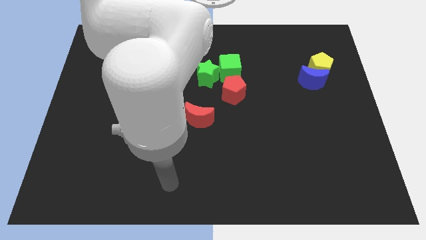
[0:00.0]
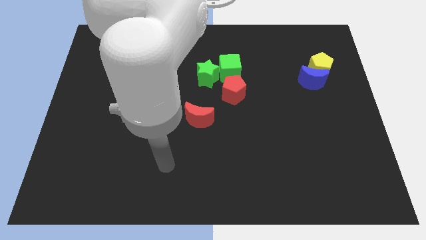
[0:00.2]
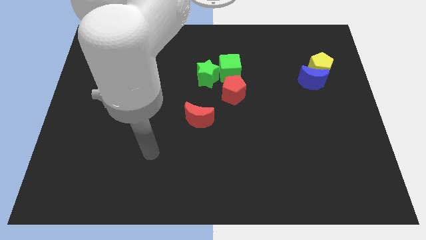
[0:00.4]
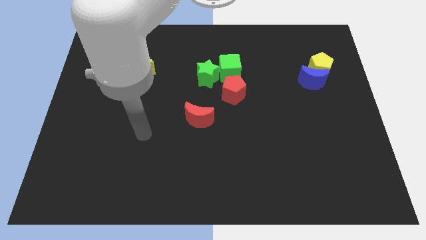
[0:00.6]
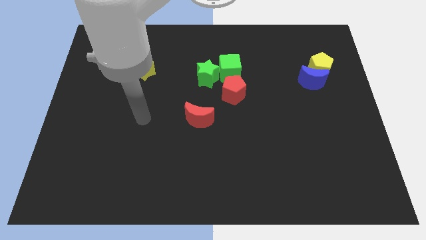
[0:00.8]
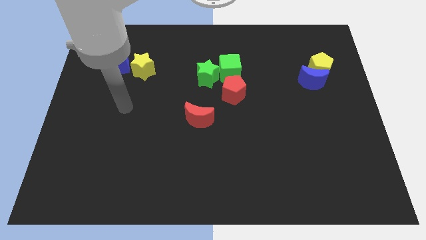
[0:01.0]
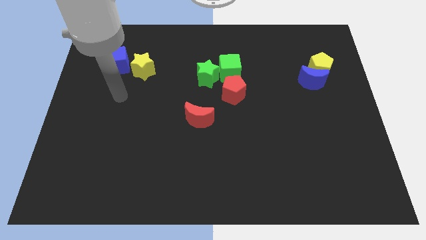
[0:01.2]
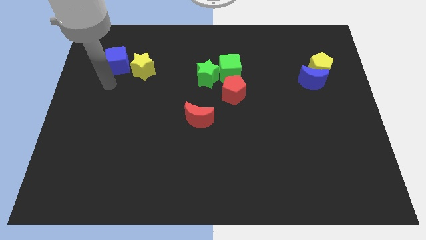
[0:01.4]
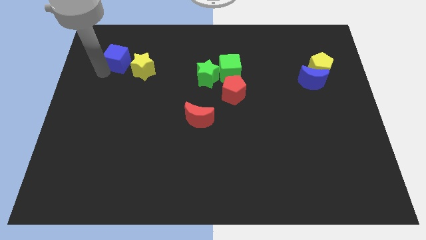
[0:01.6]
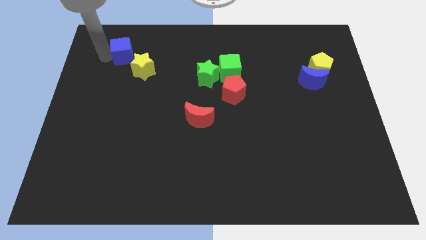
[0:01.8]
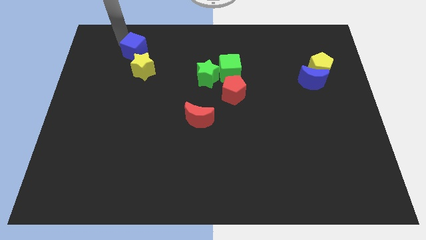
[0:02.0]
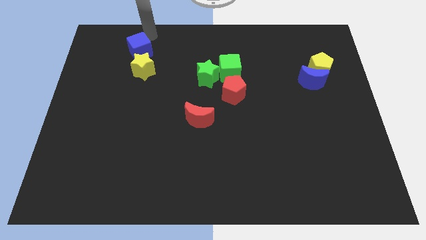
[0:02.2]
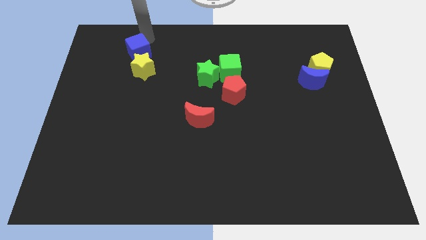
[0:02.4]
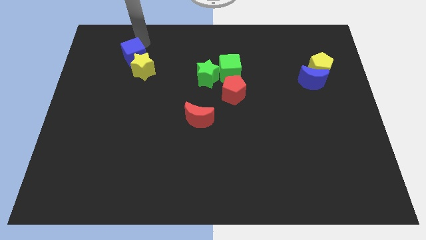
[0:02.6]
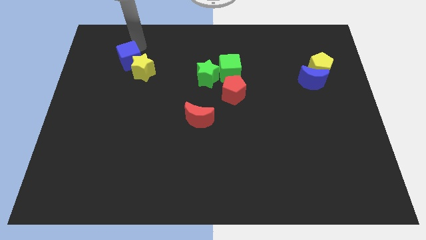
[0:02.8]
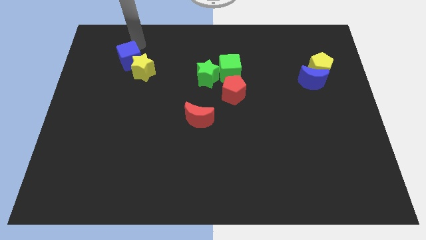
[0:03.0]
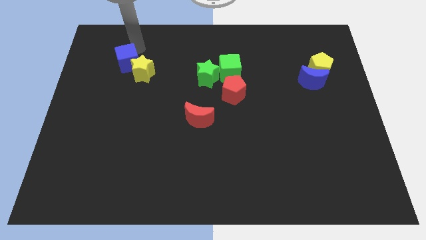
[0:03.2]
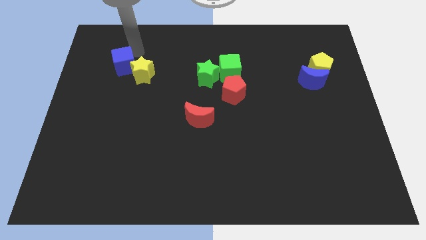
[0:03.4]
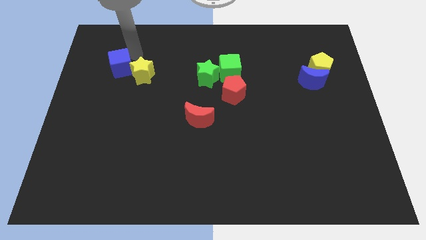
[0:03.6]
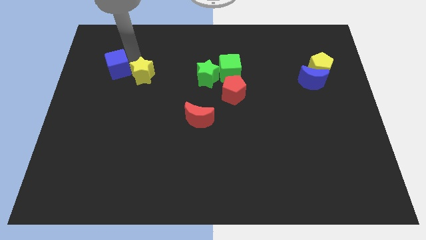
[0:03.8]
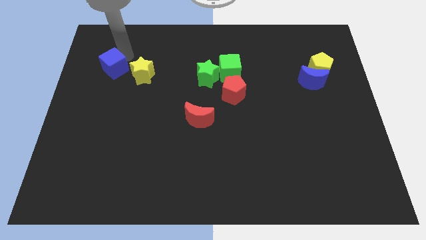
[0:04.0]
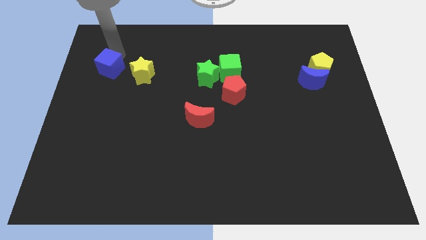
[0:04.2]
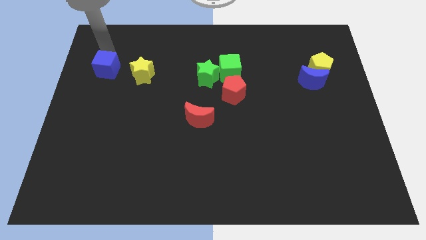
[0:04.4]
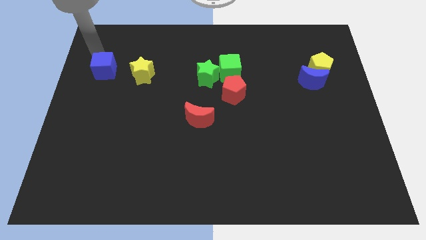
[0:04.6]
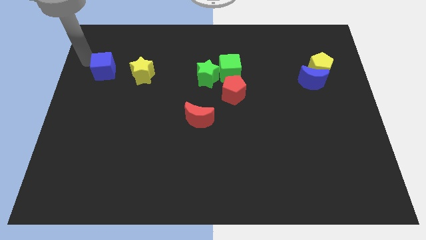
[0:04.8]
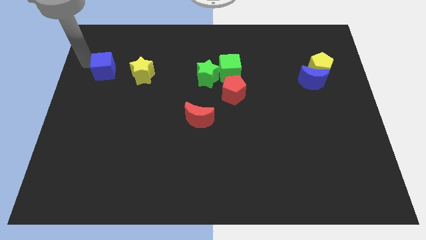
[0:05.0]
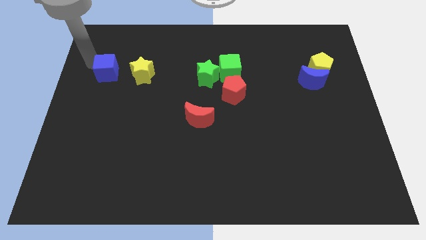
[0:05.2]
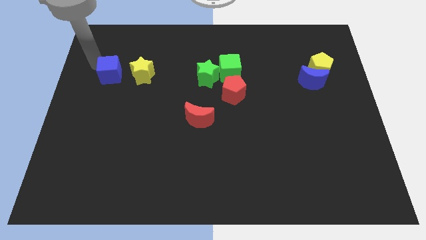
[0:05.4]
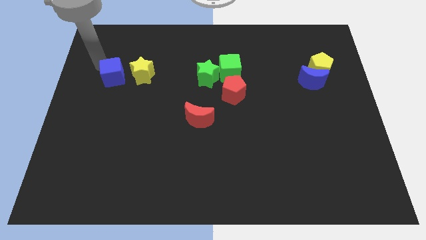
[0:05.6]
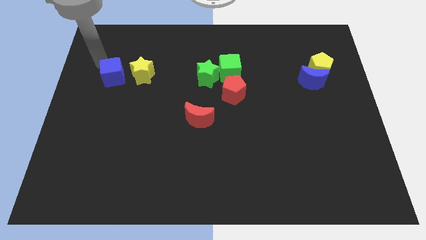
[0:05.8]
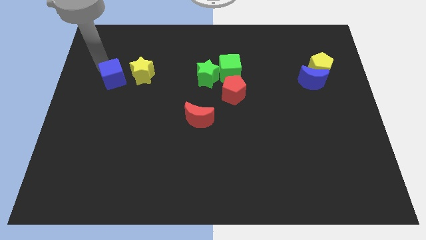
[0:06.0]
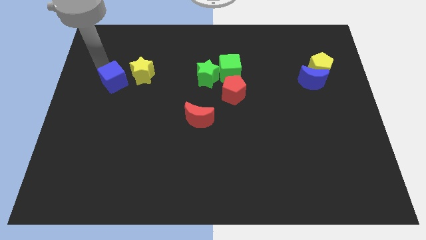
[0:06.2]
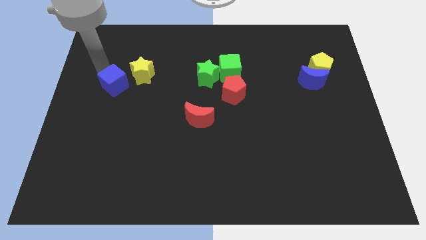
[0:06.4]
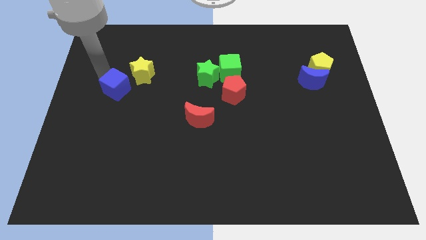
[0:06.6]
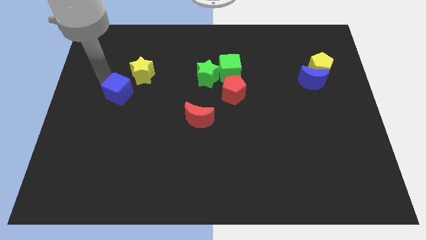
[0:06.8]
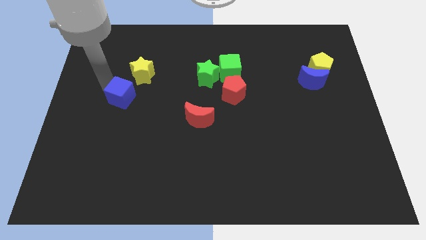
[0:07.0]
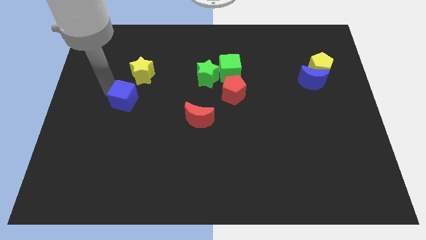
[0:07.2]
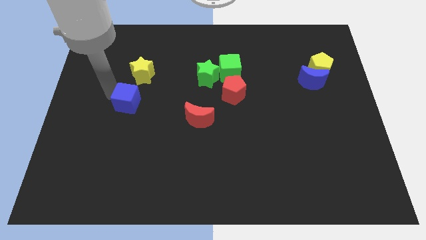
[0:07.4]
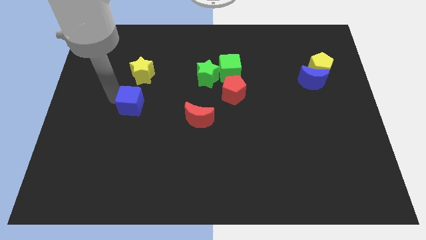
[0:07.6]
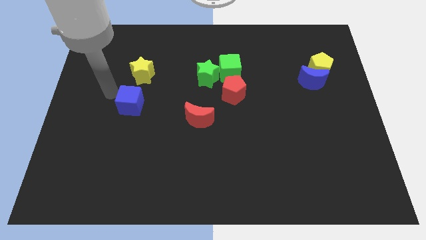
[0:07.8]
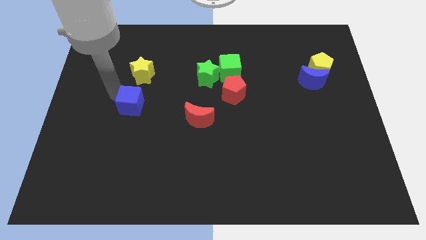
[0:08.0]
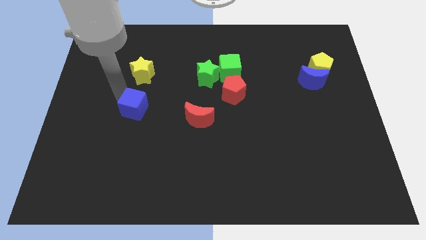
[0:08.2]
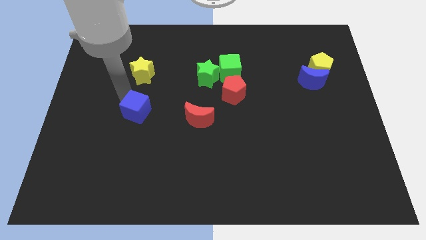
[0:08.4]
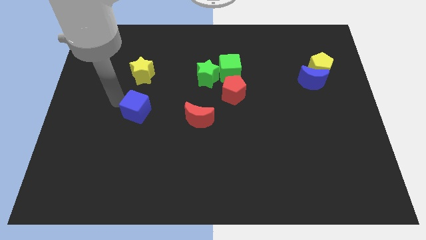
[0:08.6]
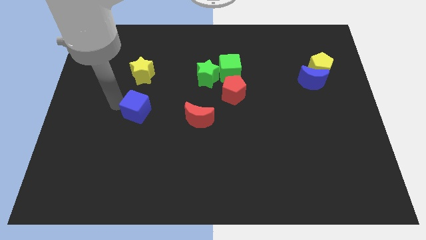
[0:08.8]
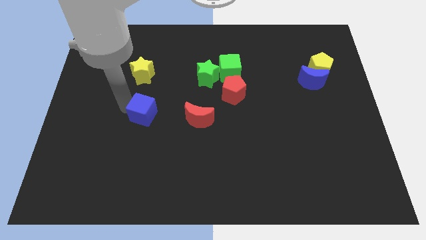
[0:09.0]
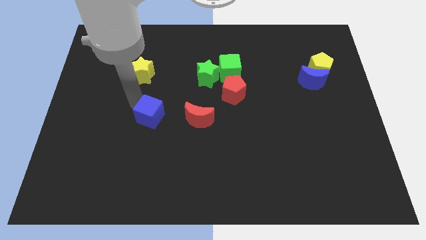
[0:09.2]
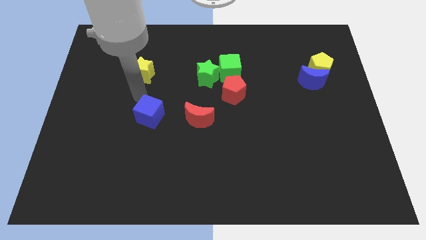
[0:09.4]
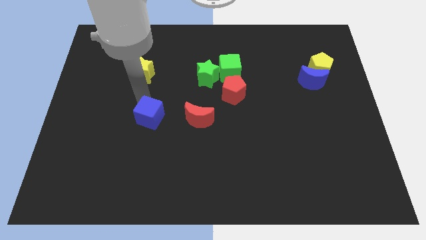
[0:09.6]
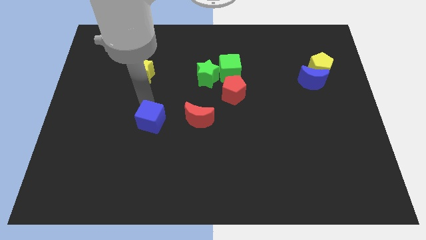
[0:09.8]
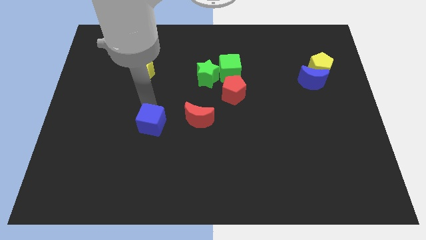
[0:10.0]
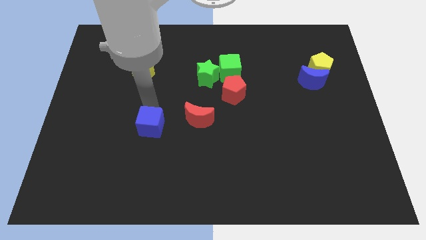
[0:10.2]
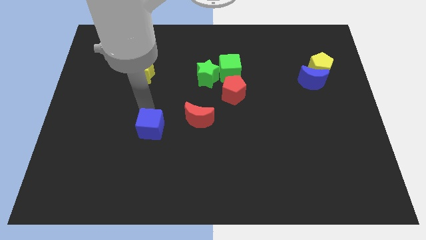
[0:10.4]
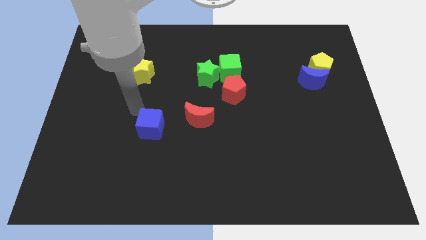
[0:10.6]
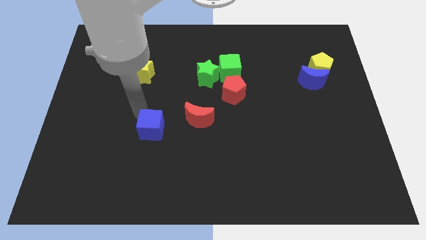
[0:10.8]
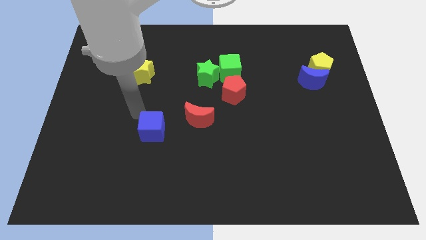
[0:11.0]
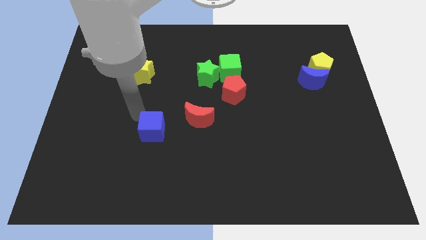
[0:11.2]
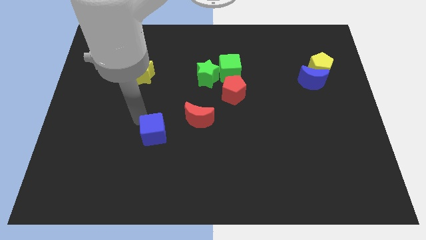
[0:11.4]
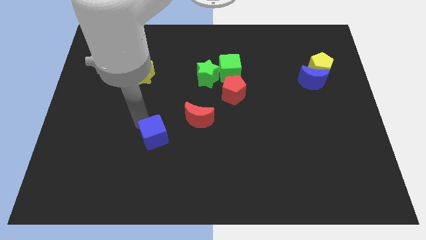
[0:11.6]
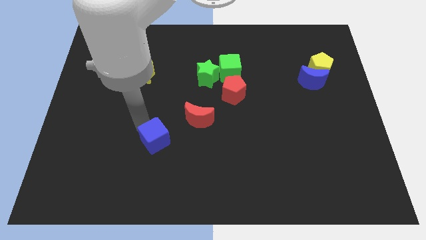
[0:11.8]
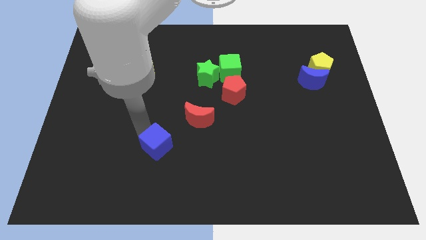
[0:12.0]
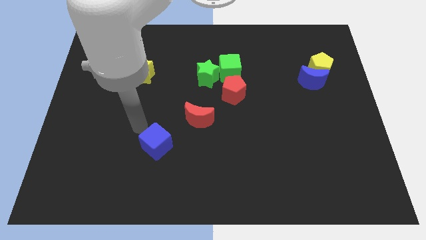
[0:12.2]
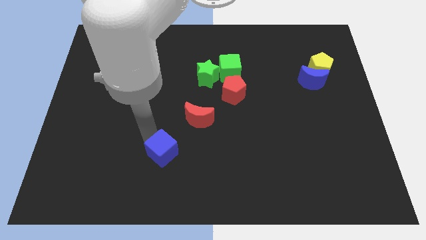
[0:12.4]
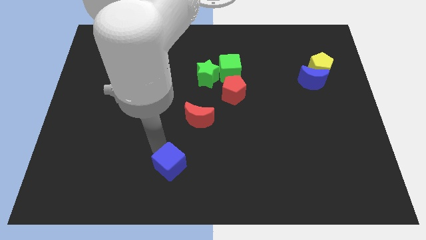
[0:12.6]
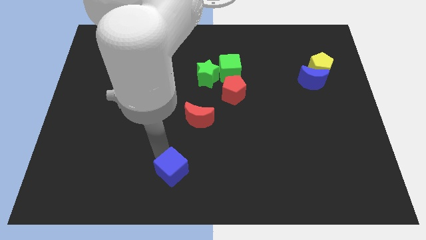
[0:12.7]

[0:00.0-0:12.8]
put the blue cube to the bottom side

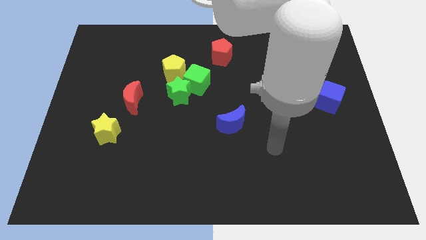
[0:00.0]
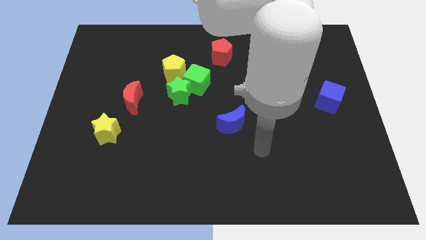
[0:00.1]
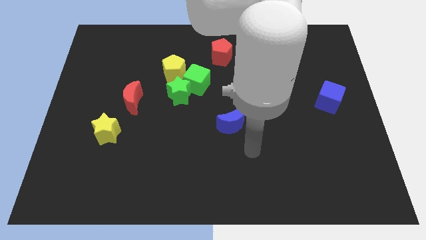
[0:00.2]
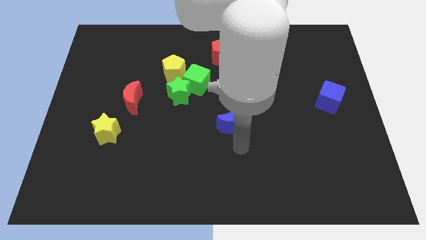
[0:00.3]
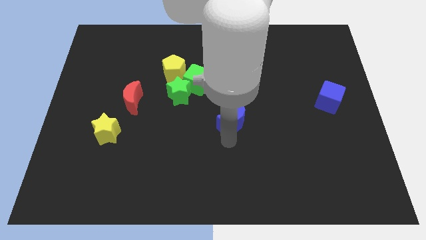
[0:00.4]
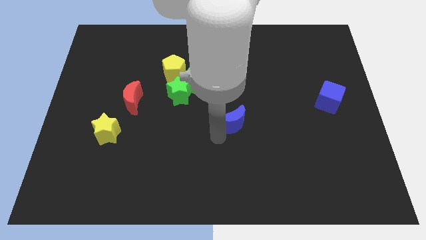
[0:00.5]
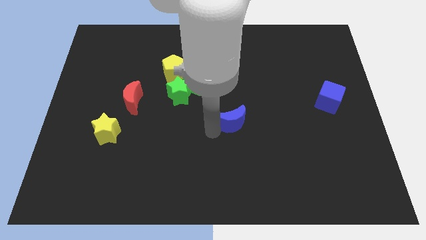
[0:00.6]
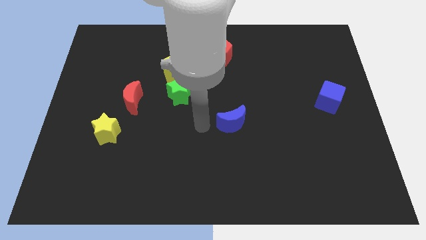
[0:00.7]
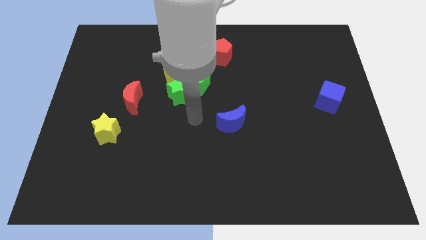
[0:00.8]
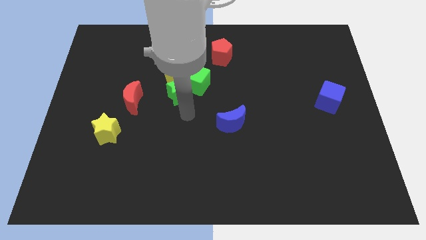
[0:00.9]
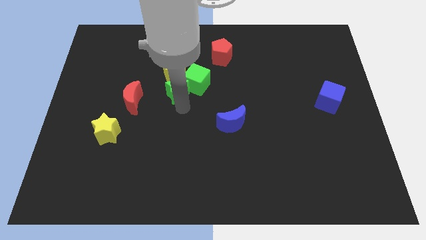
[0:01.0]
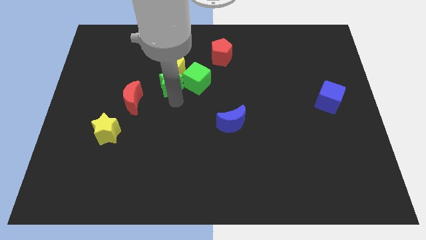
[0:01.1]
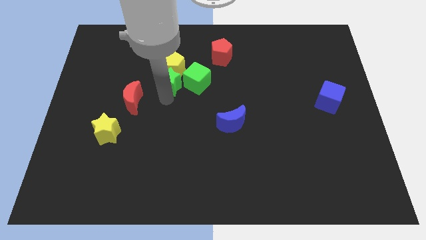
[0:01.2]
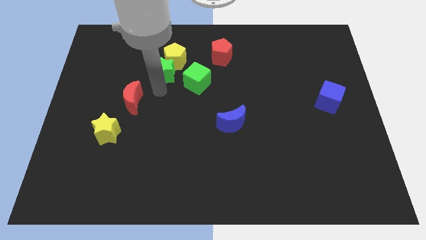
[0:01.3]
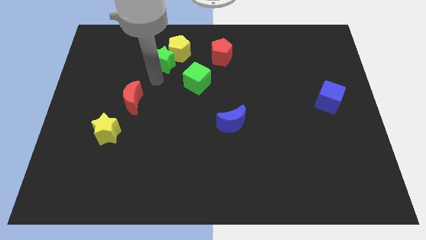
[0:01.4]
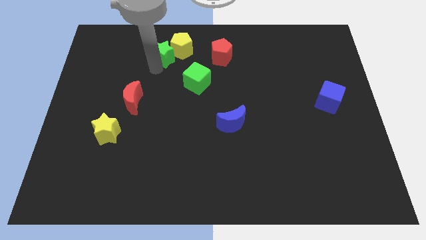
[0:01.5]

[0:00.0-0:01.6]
move the yellow pentagon to the top side
